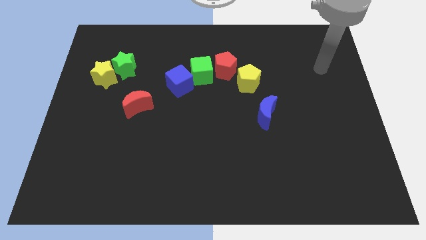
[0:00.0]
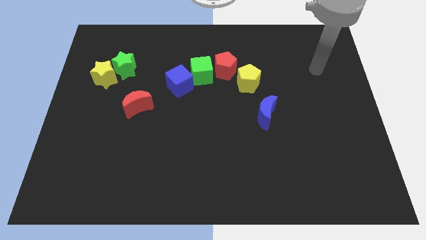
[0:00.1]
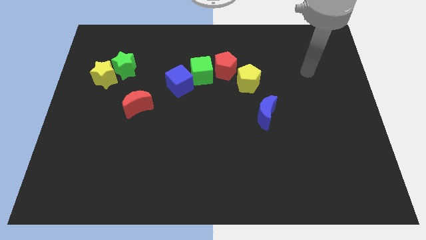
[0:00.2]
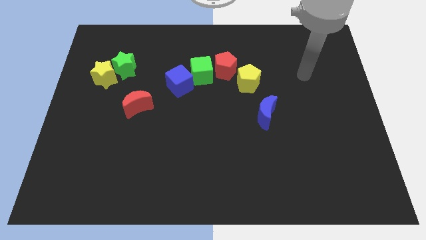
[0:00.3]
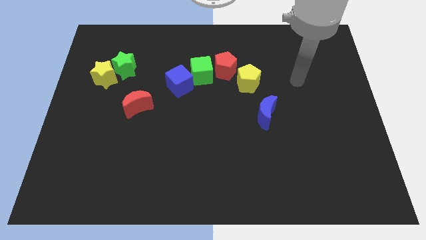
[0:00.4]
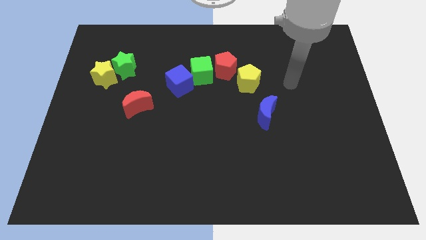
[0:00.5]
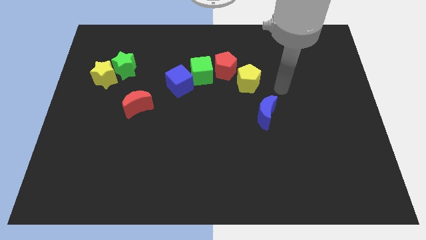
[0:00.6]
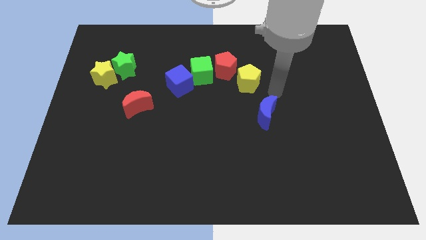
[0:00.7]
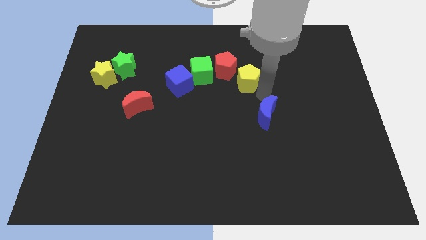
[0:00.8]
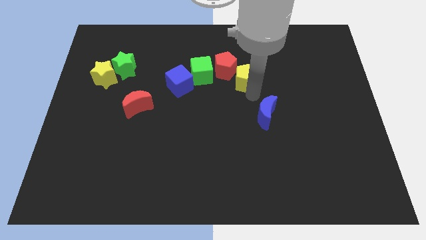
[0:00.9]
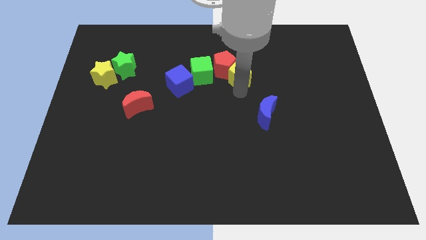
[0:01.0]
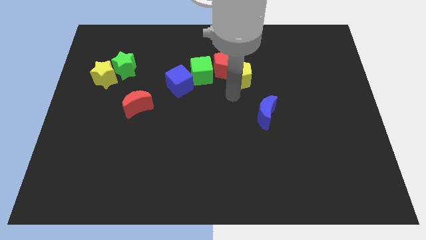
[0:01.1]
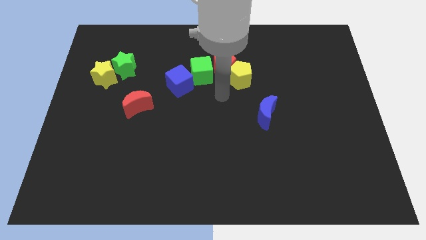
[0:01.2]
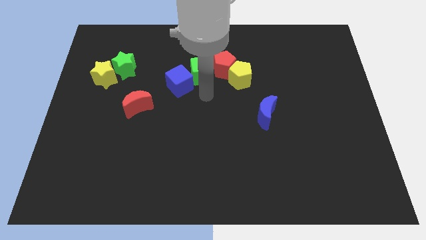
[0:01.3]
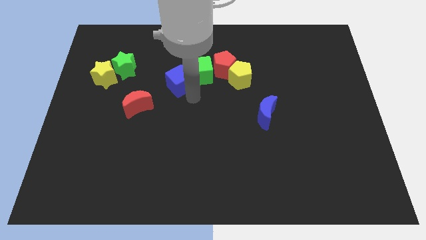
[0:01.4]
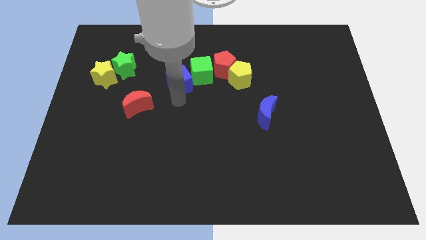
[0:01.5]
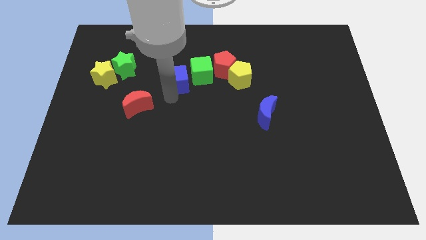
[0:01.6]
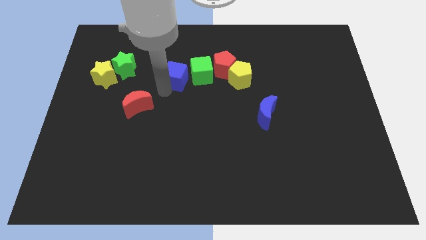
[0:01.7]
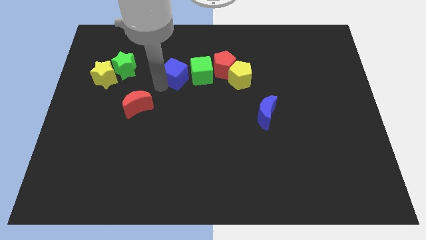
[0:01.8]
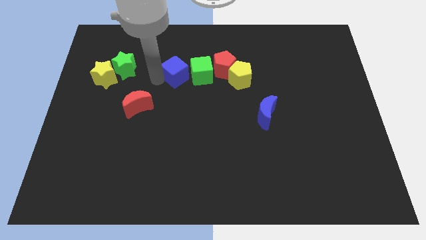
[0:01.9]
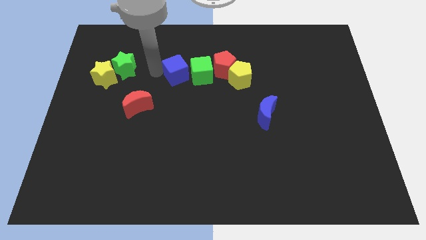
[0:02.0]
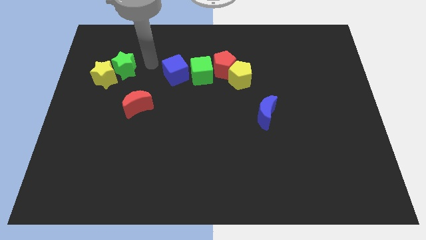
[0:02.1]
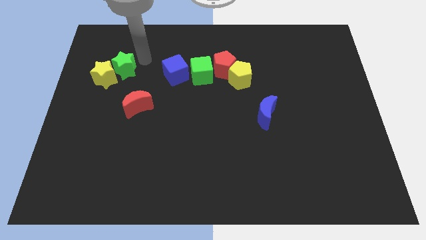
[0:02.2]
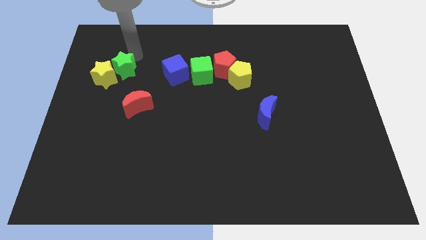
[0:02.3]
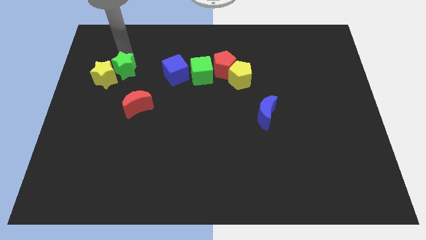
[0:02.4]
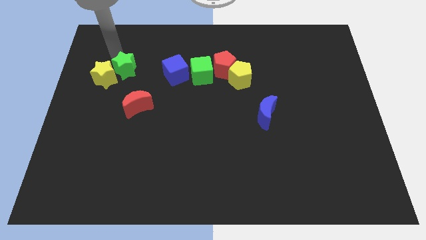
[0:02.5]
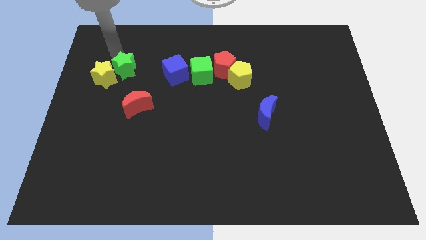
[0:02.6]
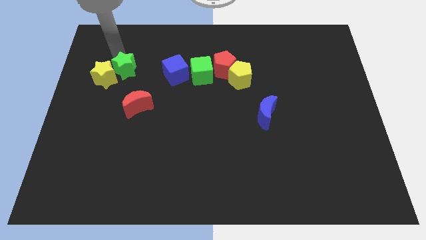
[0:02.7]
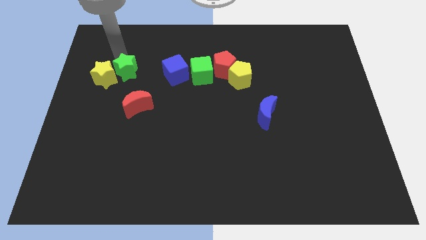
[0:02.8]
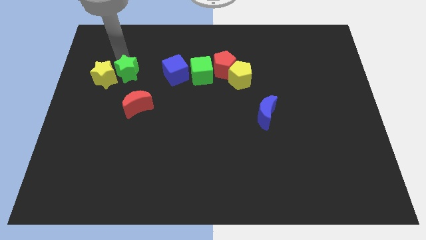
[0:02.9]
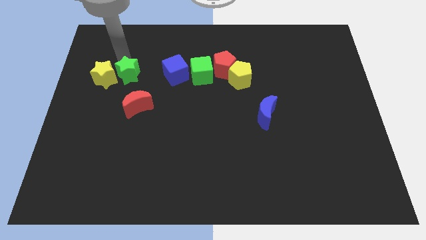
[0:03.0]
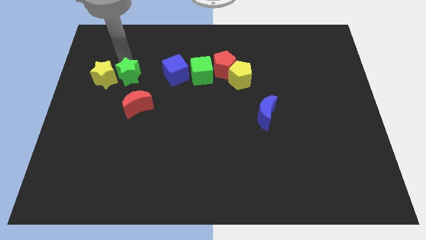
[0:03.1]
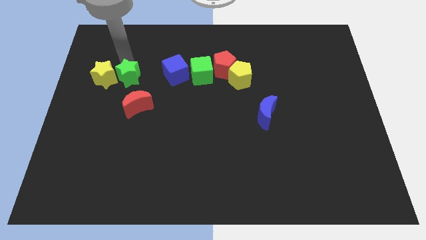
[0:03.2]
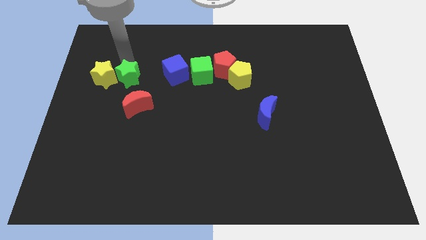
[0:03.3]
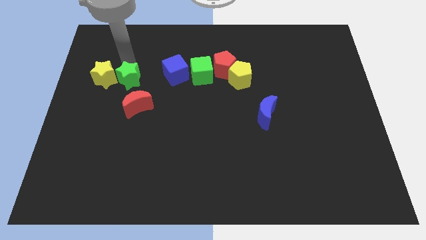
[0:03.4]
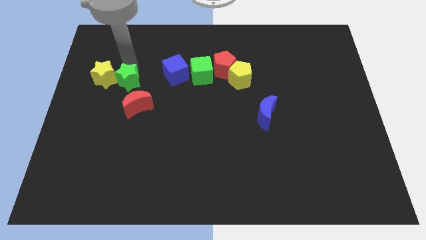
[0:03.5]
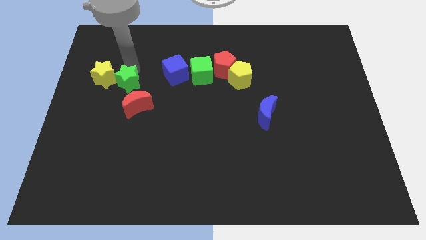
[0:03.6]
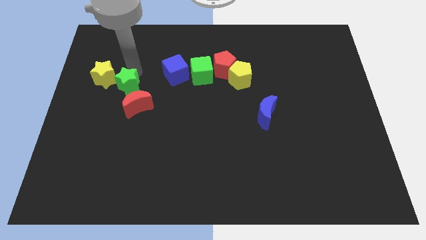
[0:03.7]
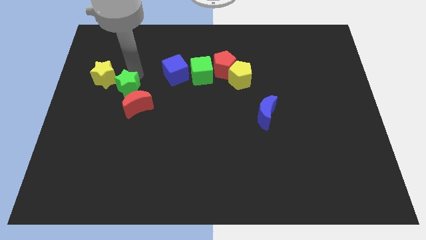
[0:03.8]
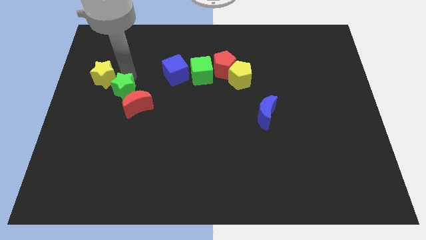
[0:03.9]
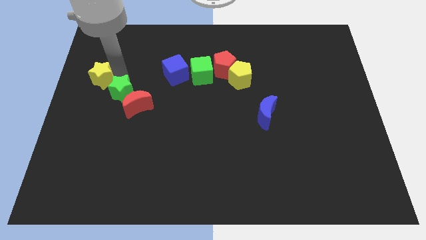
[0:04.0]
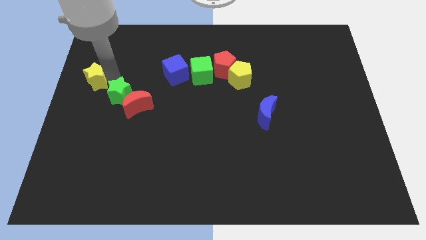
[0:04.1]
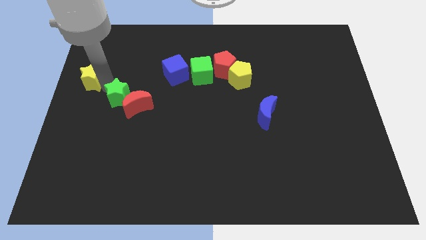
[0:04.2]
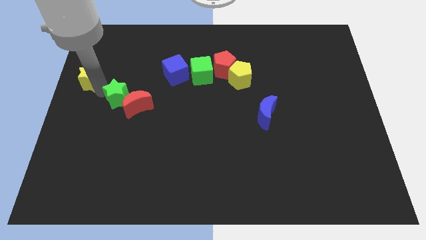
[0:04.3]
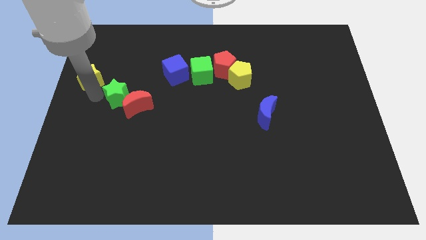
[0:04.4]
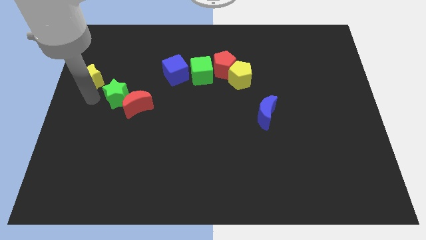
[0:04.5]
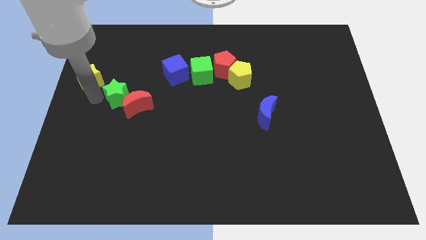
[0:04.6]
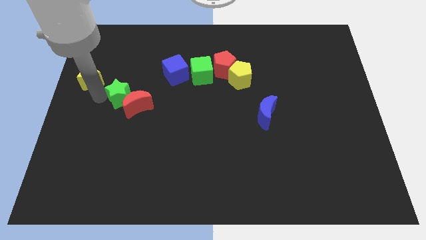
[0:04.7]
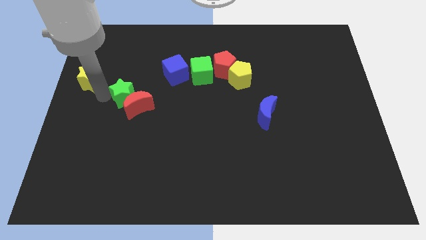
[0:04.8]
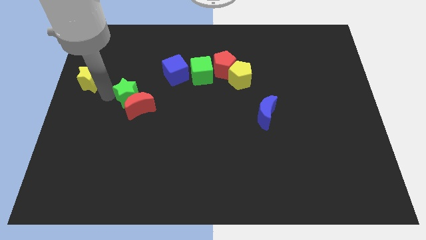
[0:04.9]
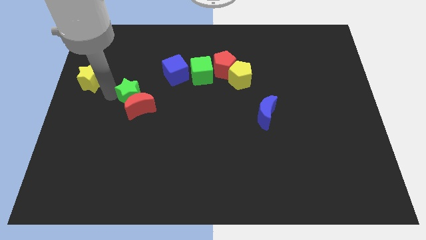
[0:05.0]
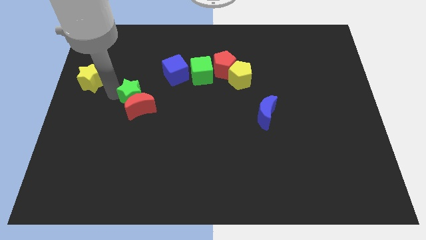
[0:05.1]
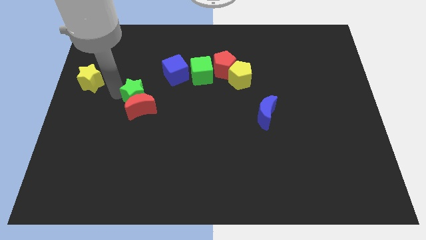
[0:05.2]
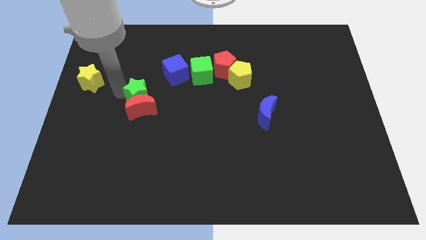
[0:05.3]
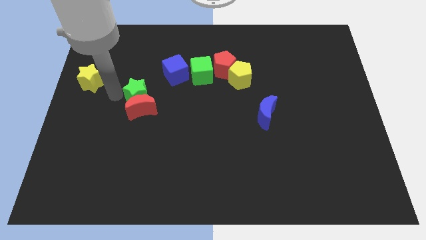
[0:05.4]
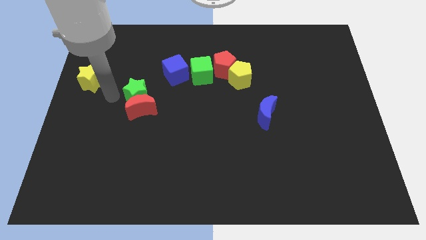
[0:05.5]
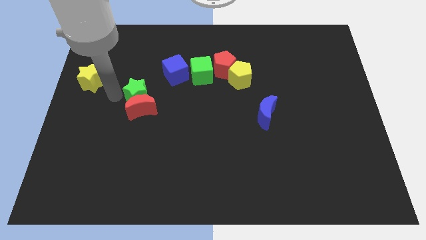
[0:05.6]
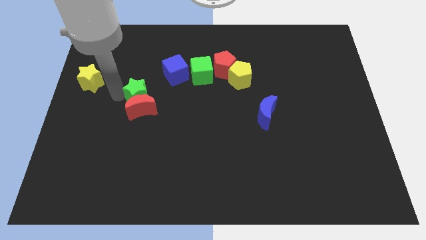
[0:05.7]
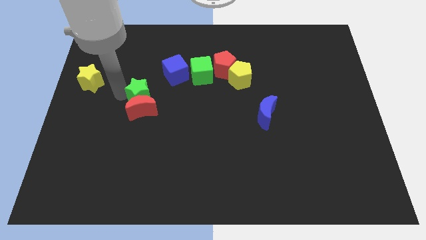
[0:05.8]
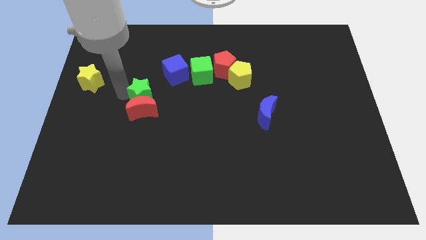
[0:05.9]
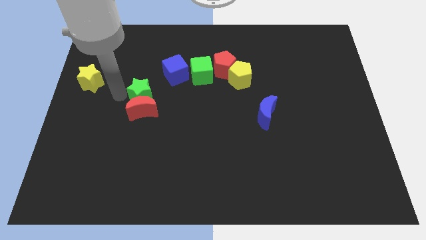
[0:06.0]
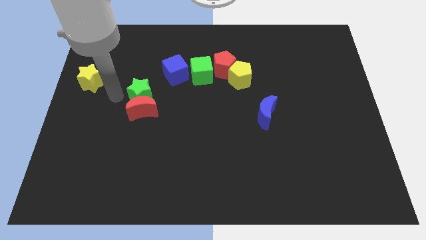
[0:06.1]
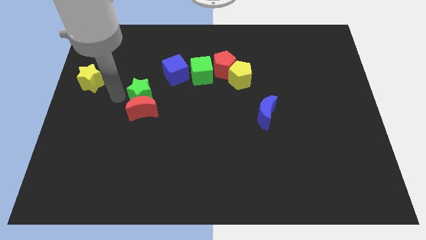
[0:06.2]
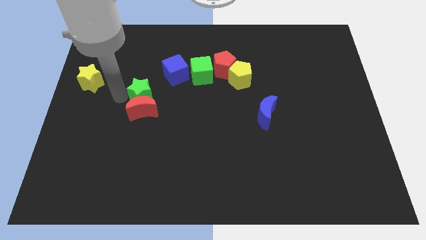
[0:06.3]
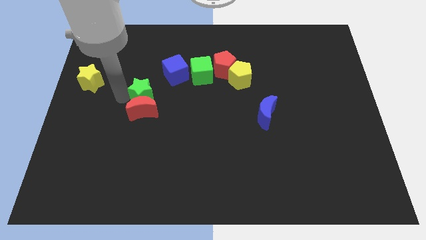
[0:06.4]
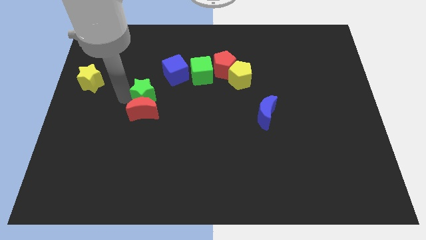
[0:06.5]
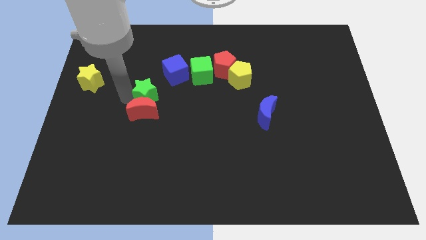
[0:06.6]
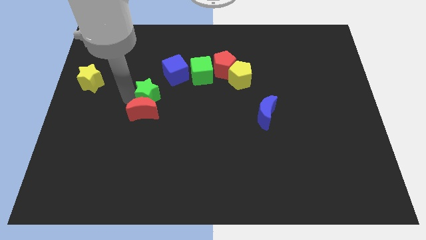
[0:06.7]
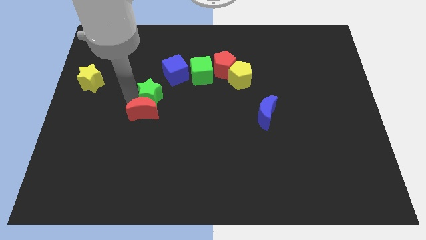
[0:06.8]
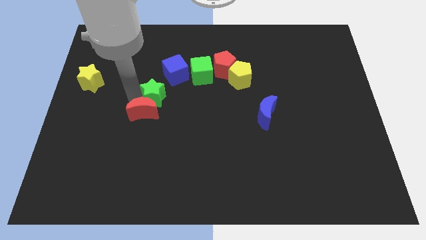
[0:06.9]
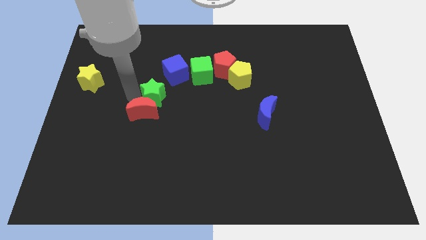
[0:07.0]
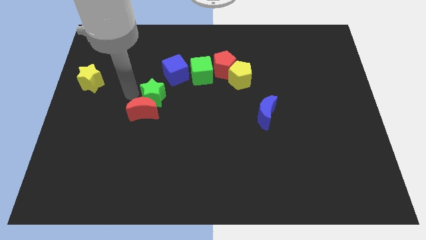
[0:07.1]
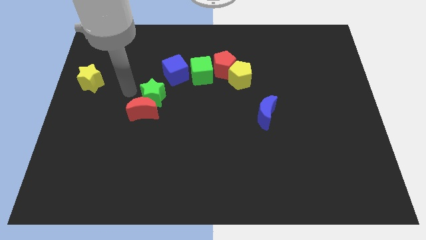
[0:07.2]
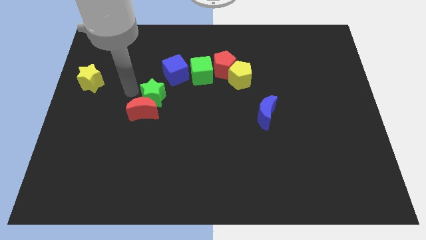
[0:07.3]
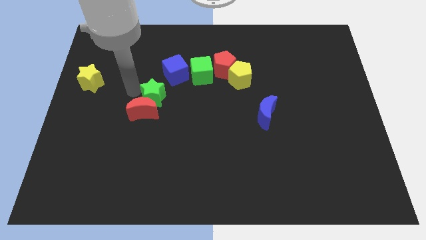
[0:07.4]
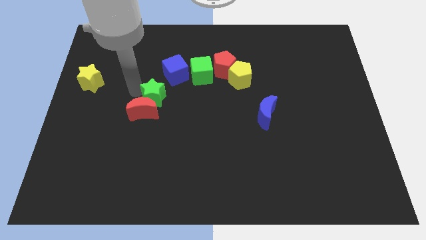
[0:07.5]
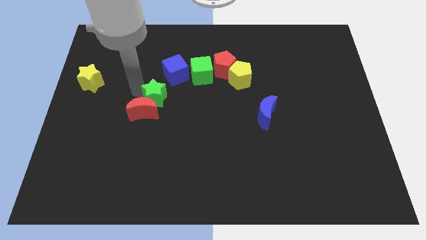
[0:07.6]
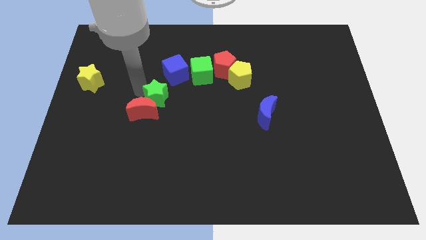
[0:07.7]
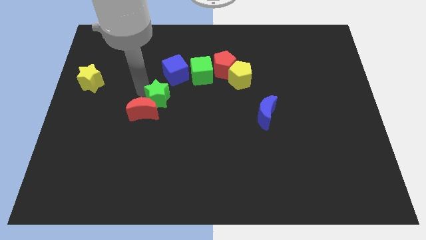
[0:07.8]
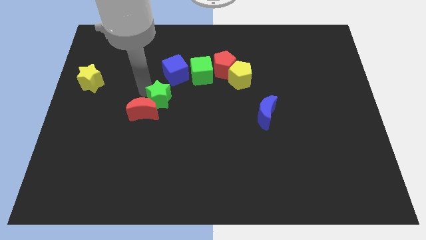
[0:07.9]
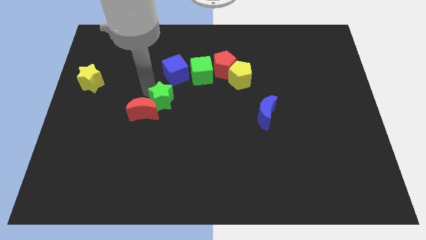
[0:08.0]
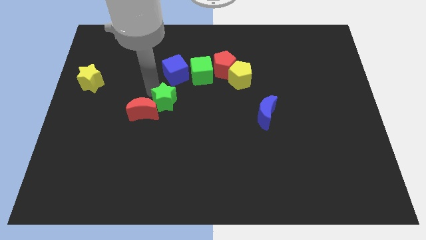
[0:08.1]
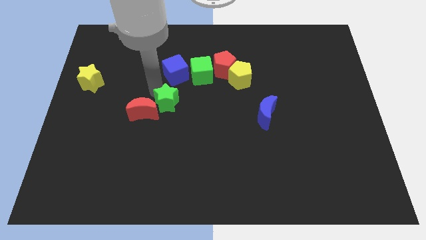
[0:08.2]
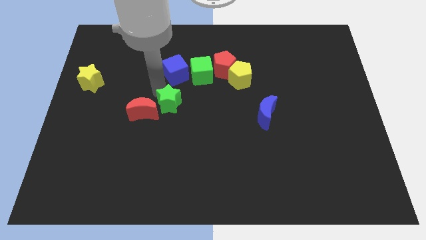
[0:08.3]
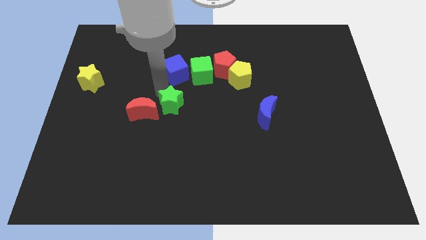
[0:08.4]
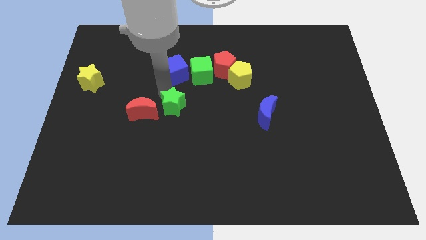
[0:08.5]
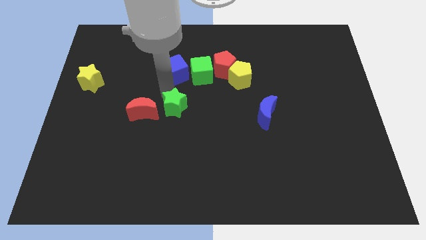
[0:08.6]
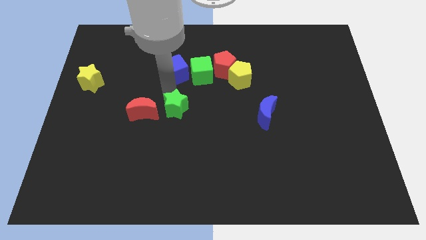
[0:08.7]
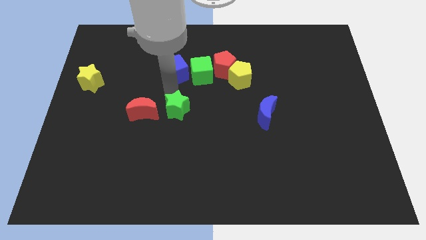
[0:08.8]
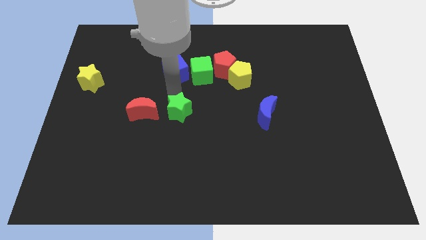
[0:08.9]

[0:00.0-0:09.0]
move the green star downwards and then to the right
